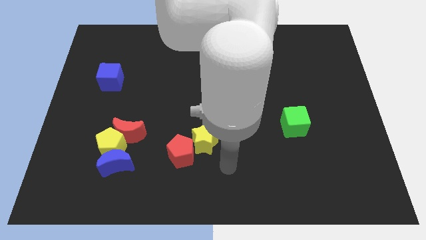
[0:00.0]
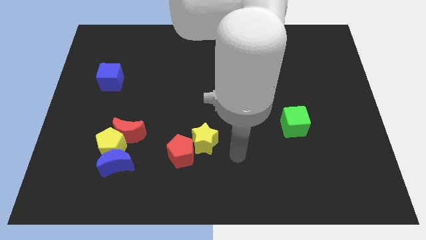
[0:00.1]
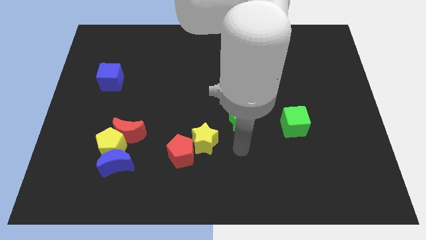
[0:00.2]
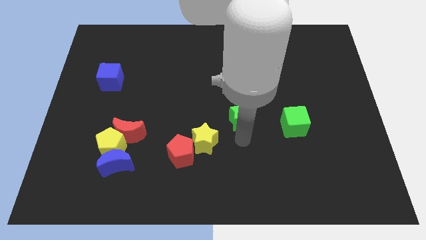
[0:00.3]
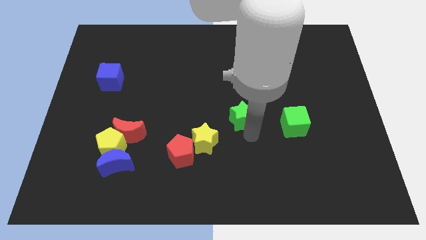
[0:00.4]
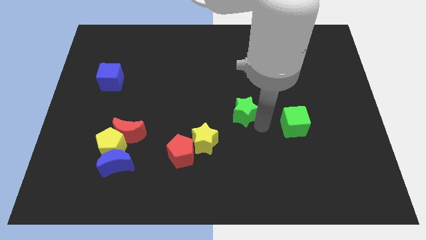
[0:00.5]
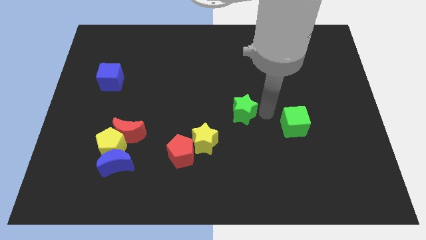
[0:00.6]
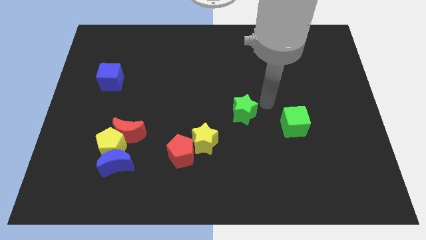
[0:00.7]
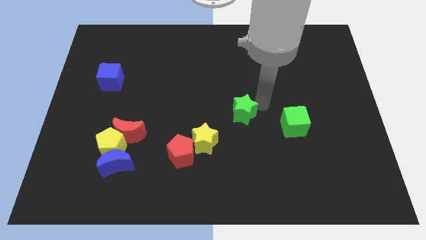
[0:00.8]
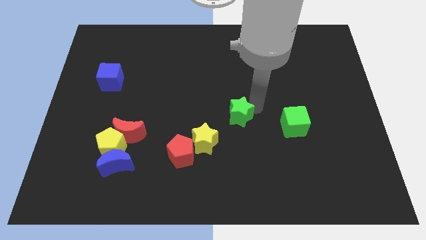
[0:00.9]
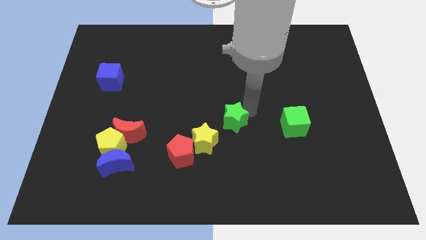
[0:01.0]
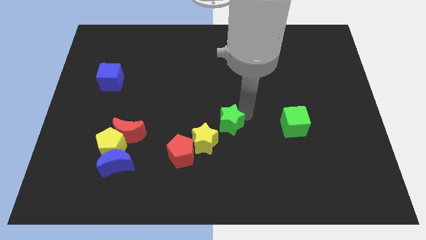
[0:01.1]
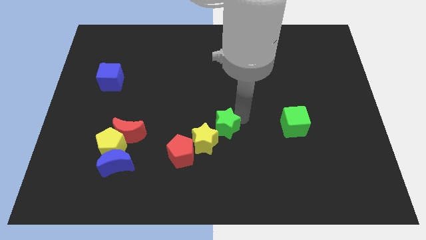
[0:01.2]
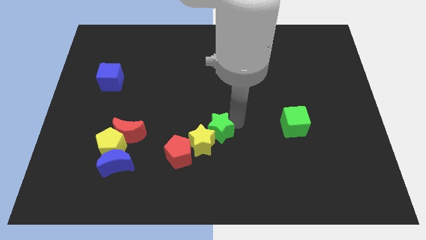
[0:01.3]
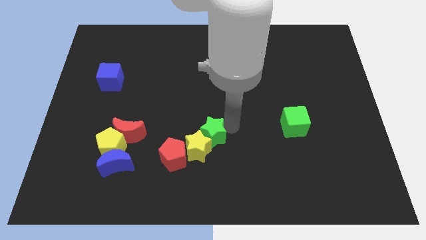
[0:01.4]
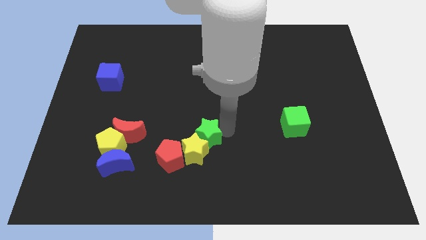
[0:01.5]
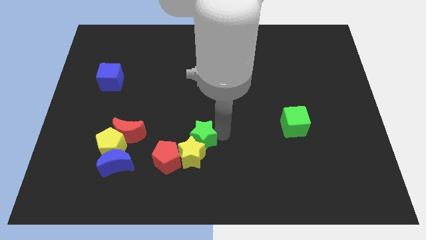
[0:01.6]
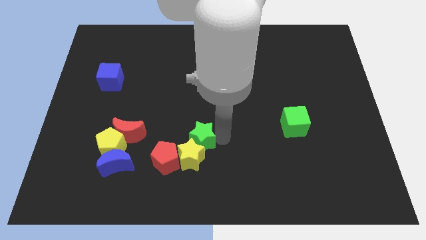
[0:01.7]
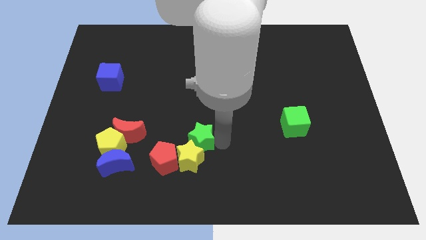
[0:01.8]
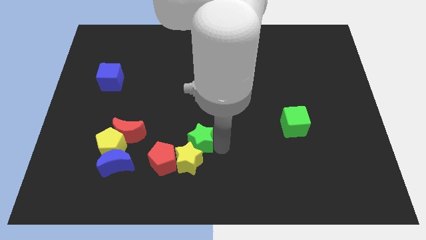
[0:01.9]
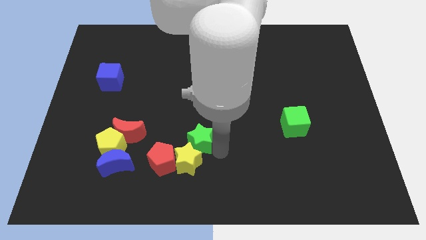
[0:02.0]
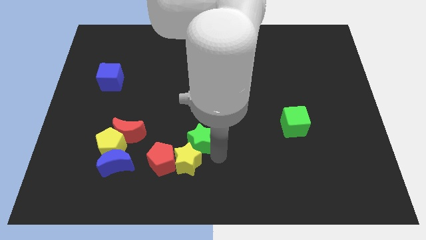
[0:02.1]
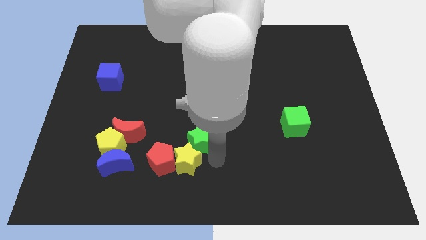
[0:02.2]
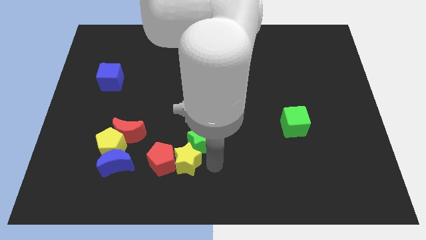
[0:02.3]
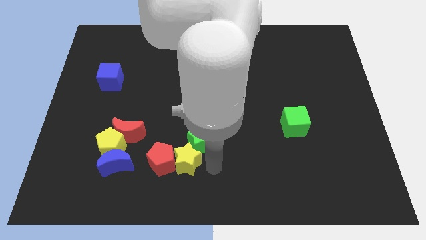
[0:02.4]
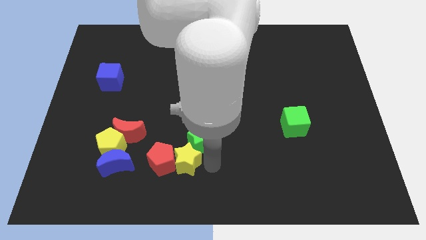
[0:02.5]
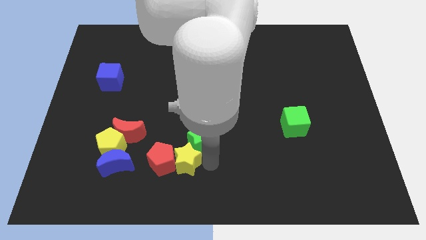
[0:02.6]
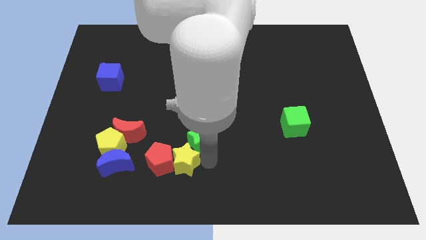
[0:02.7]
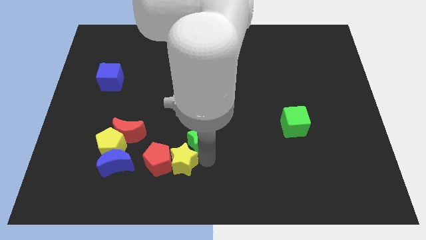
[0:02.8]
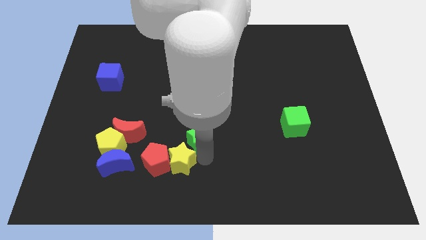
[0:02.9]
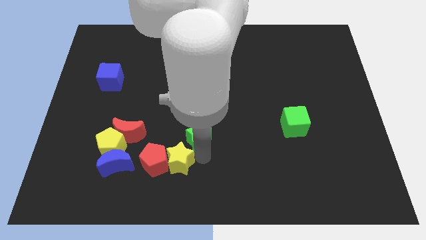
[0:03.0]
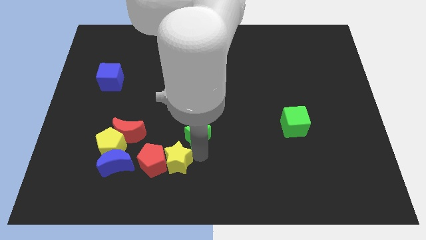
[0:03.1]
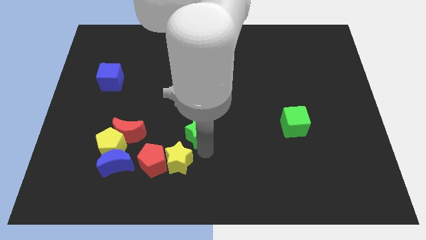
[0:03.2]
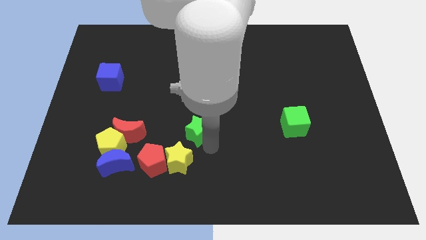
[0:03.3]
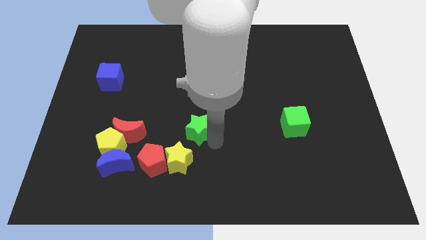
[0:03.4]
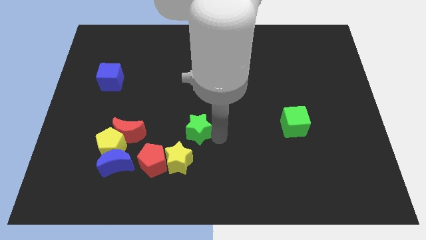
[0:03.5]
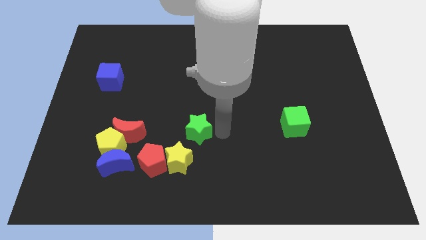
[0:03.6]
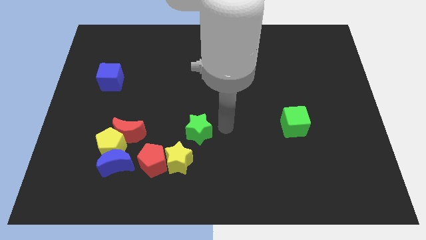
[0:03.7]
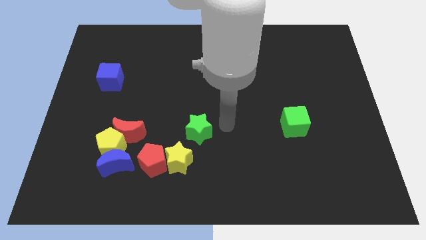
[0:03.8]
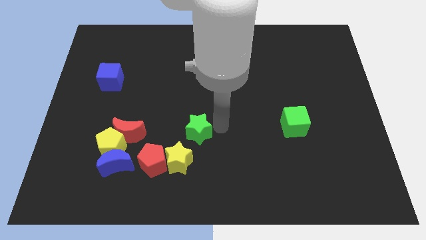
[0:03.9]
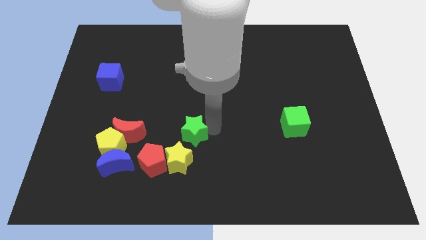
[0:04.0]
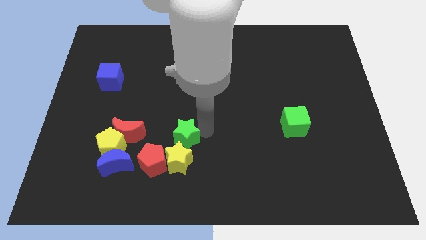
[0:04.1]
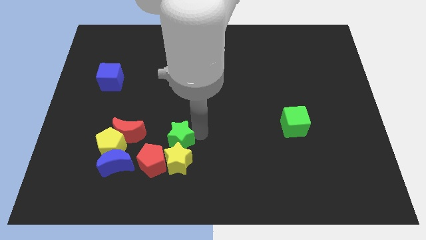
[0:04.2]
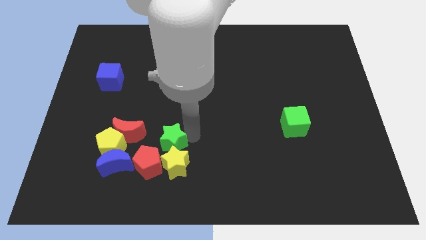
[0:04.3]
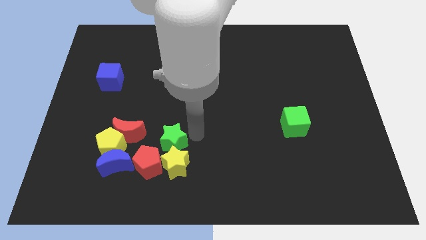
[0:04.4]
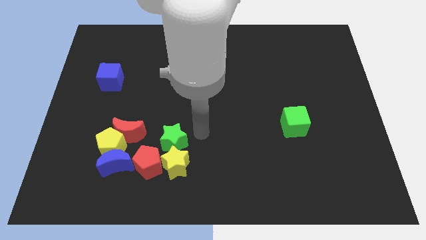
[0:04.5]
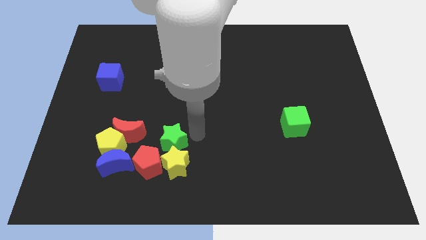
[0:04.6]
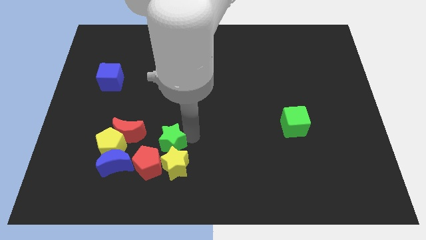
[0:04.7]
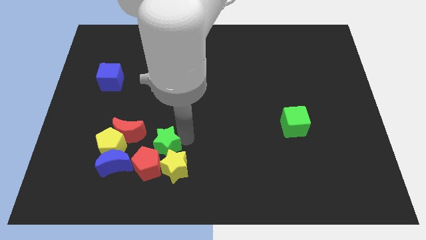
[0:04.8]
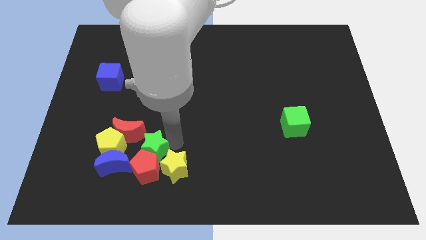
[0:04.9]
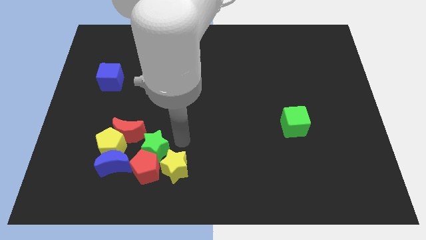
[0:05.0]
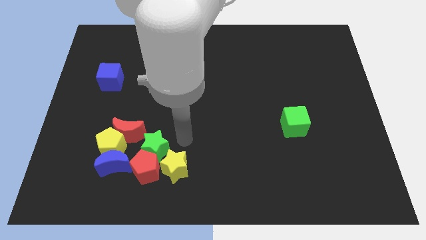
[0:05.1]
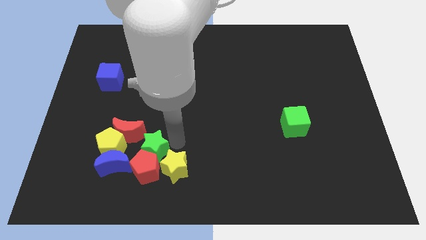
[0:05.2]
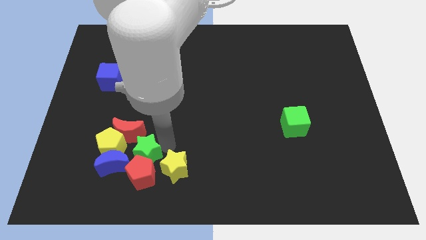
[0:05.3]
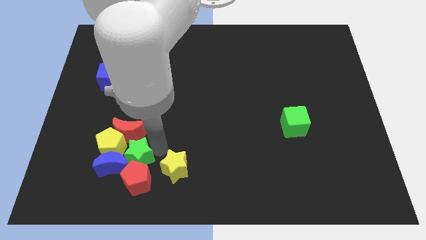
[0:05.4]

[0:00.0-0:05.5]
move the green star towards the blue moon

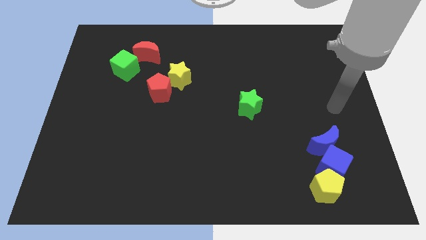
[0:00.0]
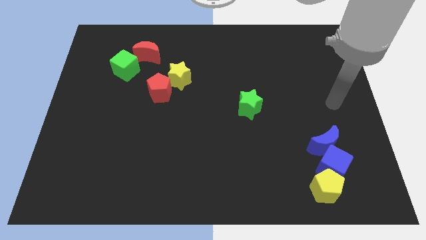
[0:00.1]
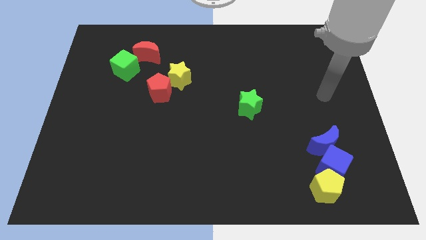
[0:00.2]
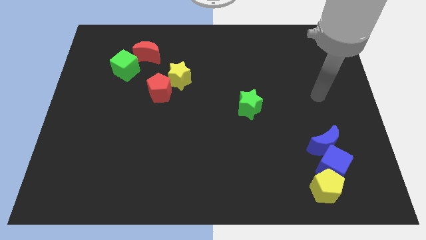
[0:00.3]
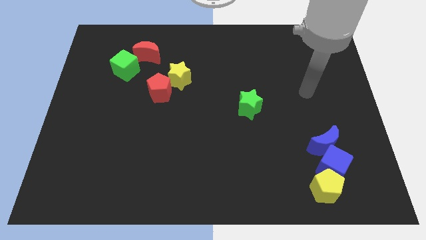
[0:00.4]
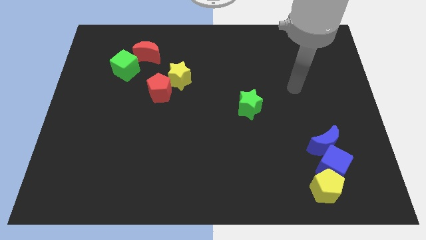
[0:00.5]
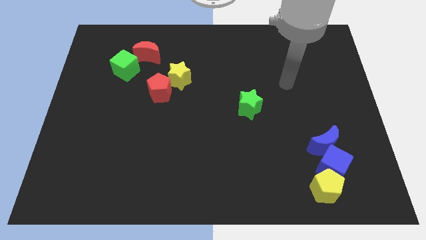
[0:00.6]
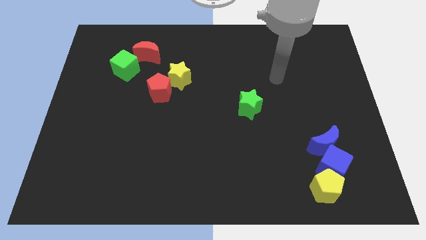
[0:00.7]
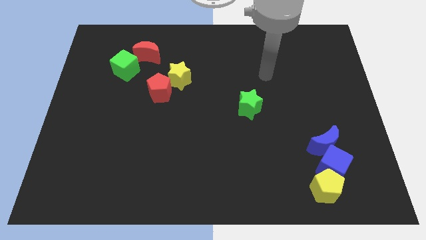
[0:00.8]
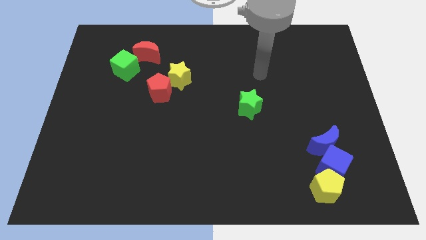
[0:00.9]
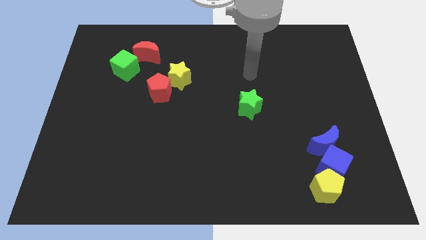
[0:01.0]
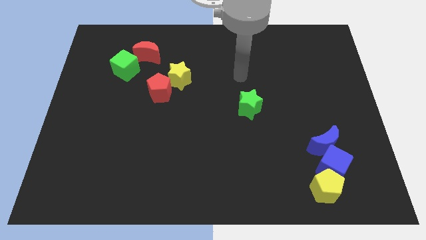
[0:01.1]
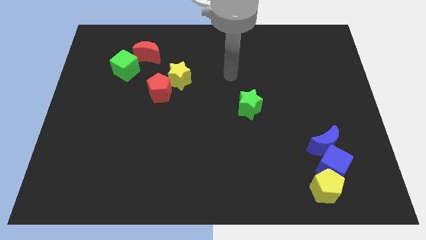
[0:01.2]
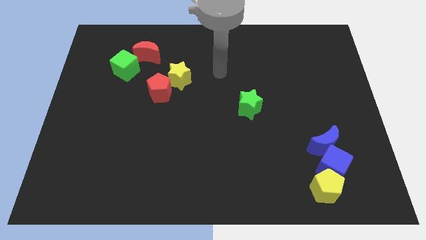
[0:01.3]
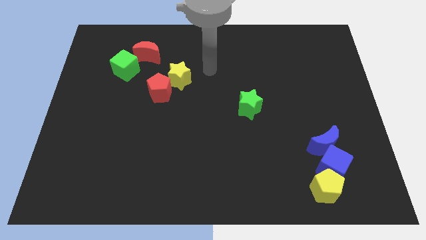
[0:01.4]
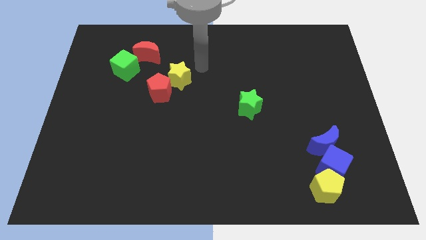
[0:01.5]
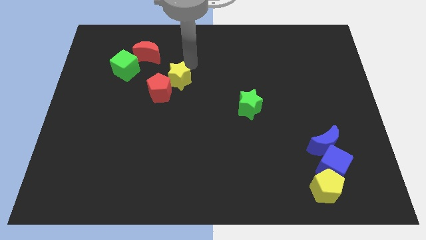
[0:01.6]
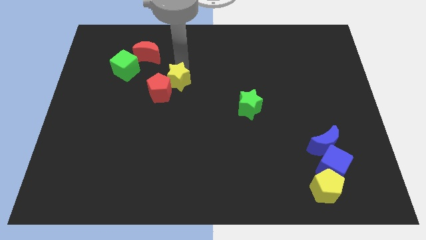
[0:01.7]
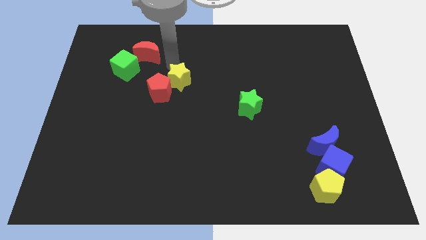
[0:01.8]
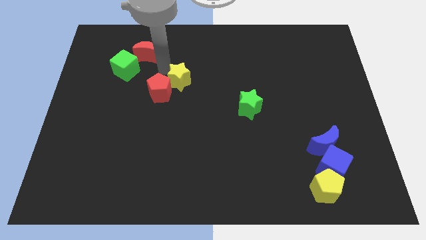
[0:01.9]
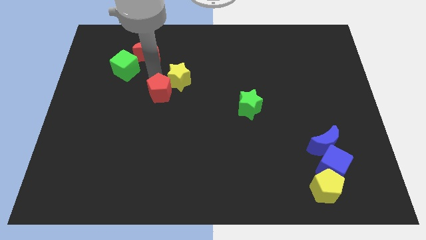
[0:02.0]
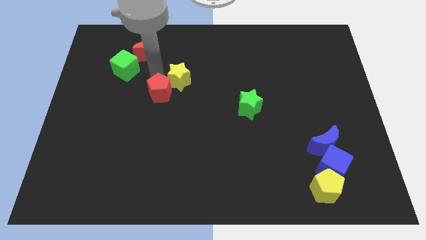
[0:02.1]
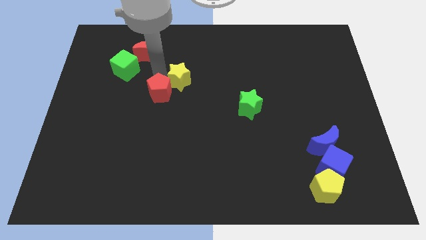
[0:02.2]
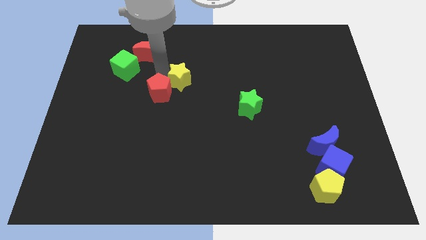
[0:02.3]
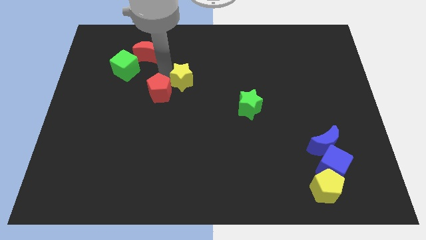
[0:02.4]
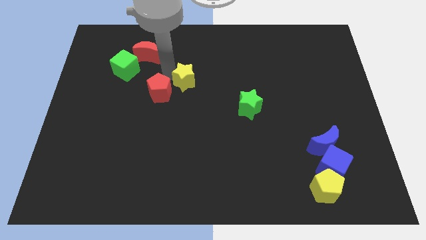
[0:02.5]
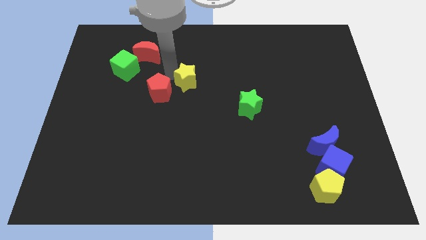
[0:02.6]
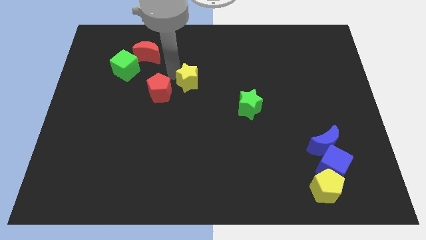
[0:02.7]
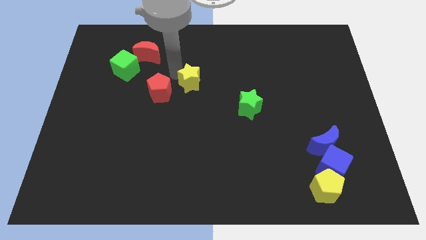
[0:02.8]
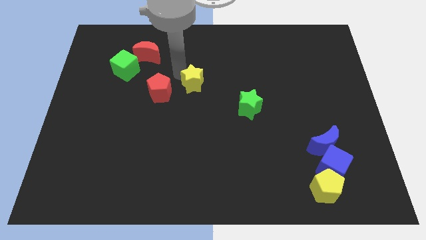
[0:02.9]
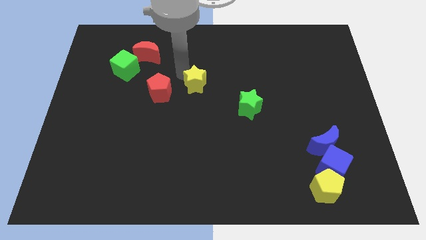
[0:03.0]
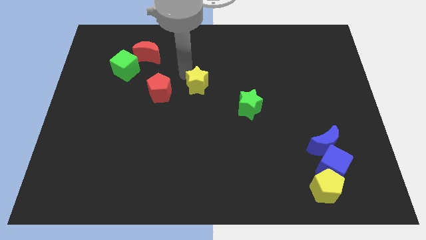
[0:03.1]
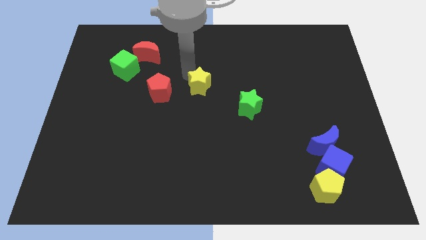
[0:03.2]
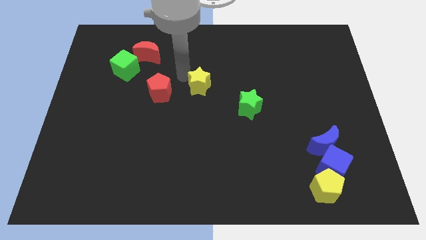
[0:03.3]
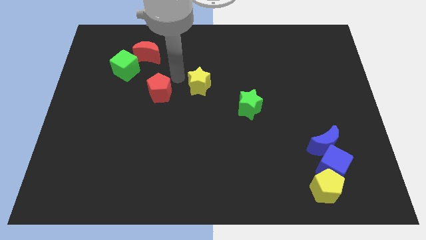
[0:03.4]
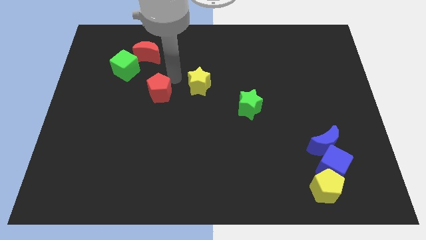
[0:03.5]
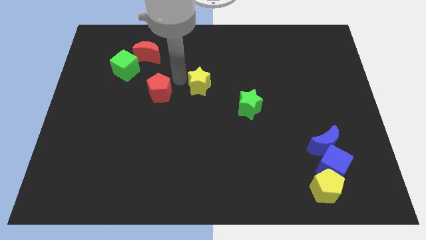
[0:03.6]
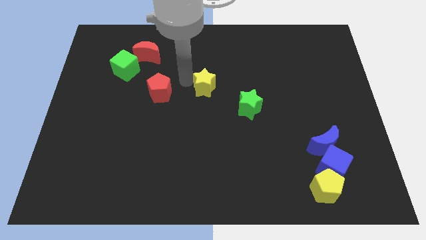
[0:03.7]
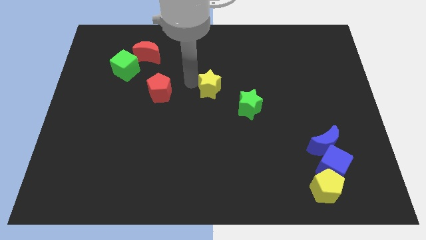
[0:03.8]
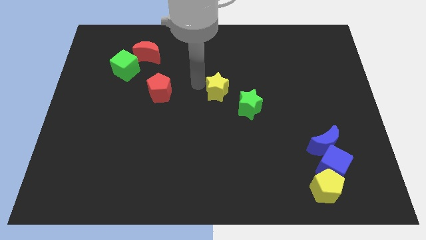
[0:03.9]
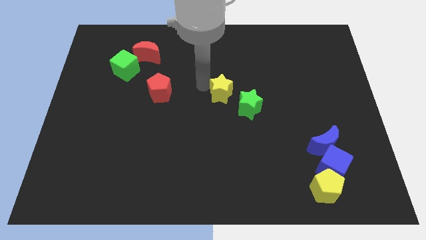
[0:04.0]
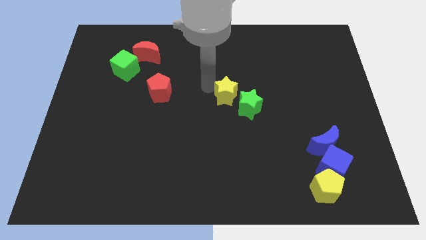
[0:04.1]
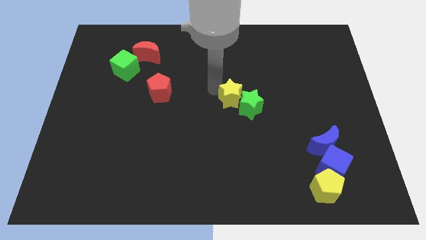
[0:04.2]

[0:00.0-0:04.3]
put the yellow star towards the green star
